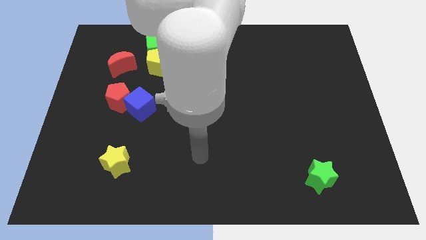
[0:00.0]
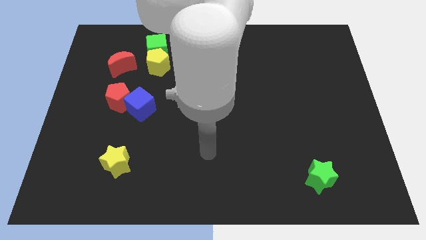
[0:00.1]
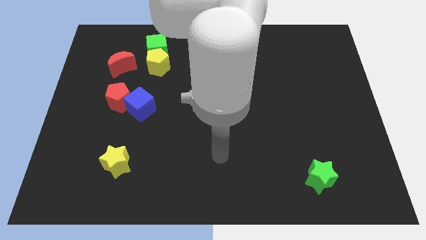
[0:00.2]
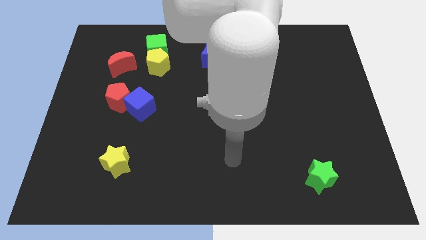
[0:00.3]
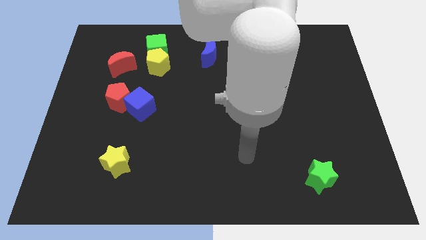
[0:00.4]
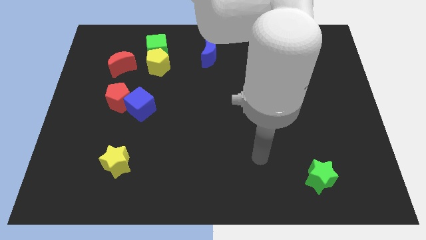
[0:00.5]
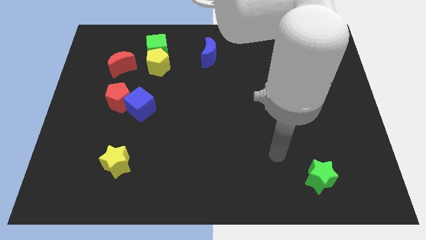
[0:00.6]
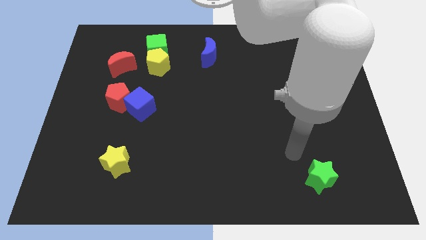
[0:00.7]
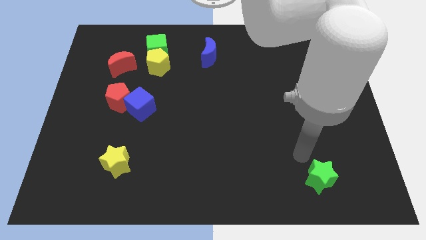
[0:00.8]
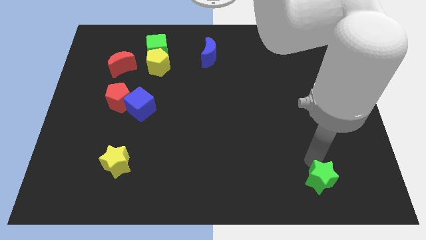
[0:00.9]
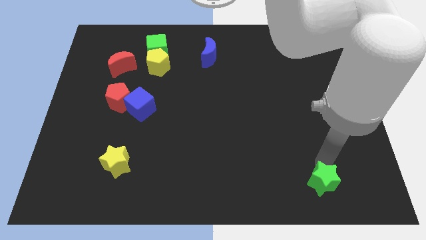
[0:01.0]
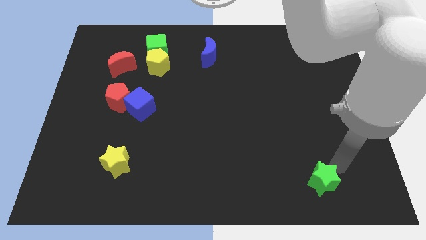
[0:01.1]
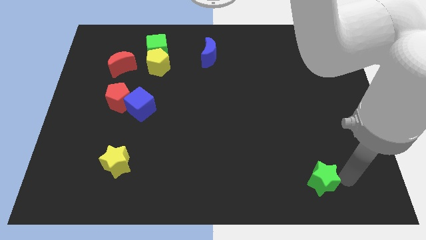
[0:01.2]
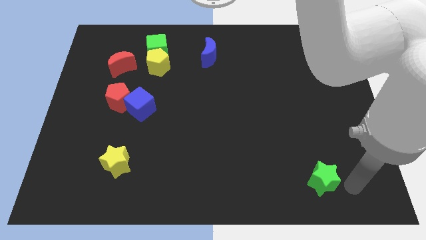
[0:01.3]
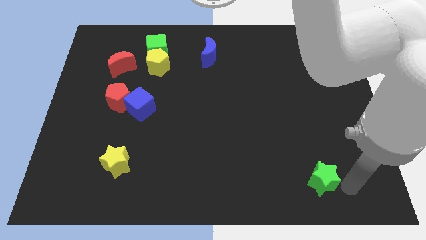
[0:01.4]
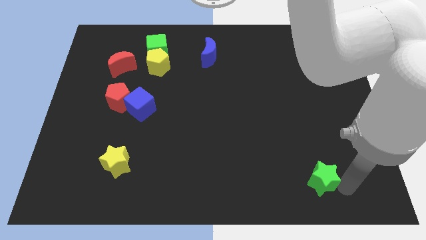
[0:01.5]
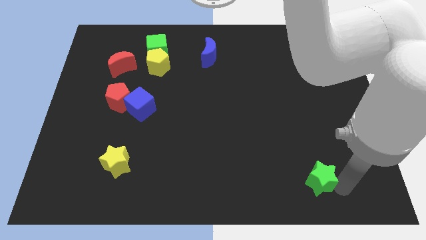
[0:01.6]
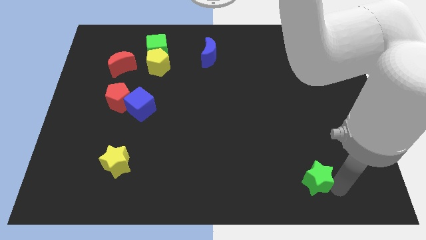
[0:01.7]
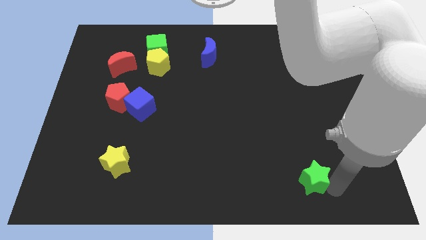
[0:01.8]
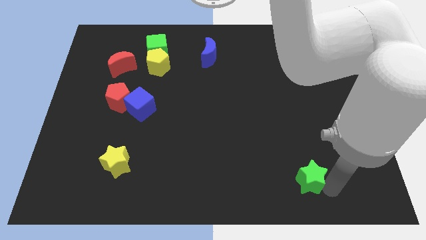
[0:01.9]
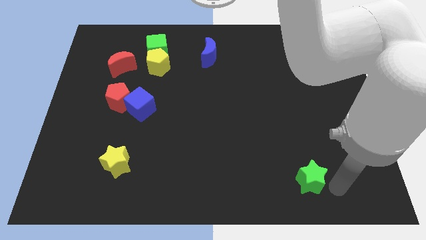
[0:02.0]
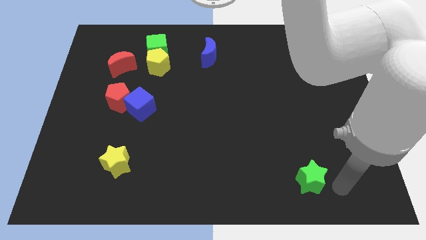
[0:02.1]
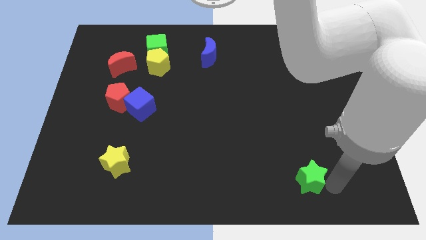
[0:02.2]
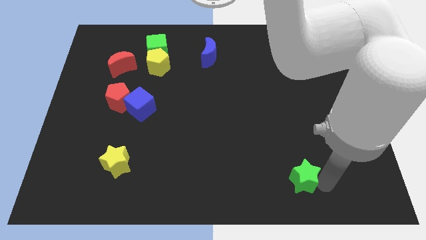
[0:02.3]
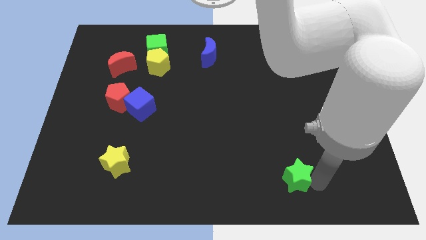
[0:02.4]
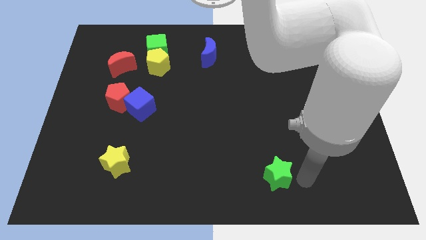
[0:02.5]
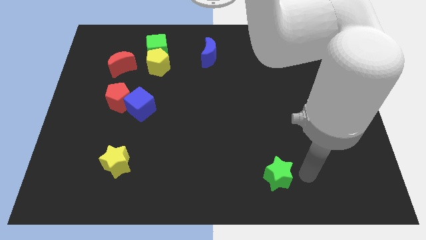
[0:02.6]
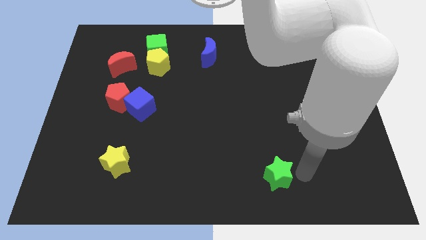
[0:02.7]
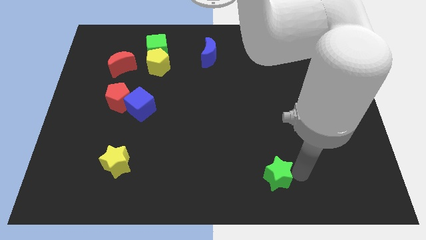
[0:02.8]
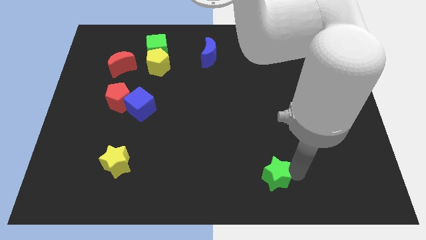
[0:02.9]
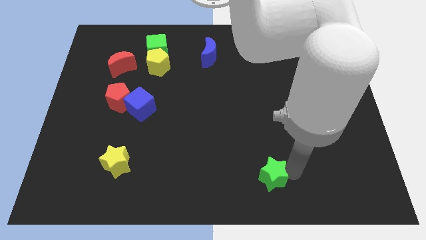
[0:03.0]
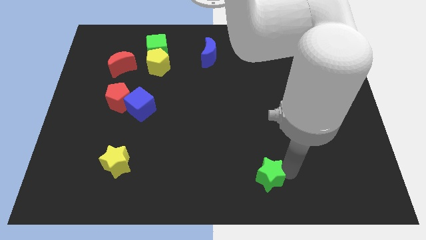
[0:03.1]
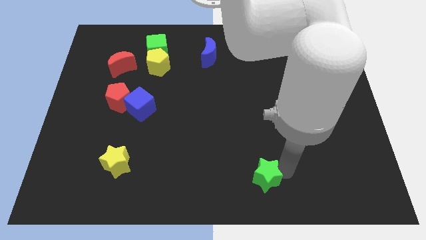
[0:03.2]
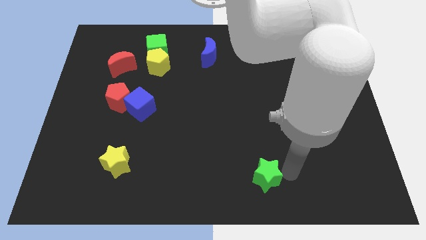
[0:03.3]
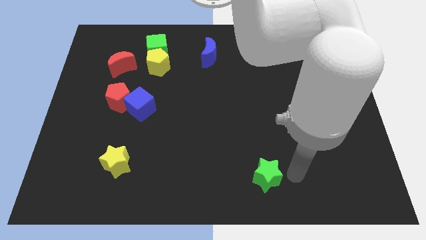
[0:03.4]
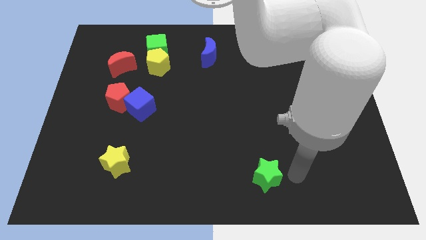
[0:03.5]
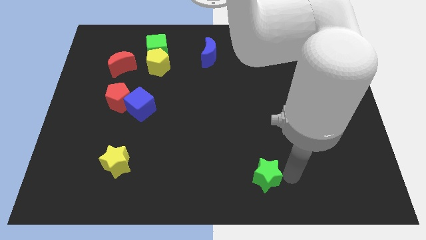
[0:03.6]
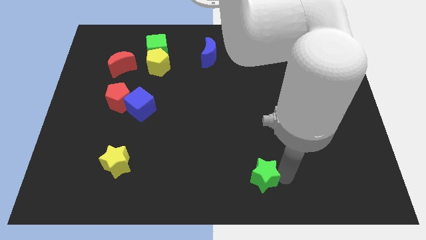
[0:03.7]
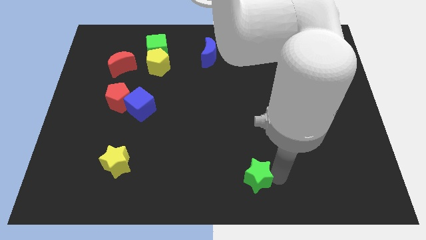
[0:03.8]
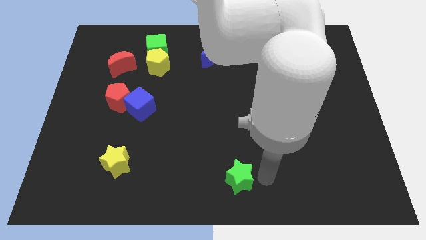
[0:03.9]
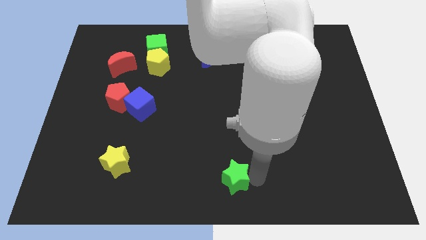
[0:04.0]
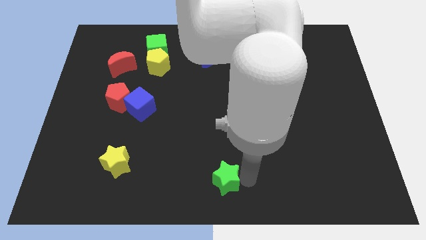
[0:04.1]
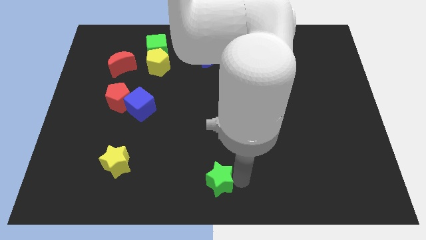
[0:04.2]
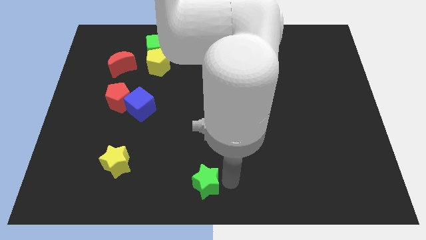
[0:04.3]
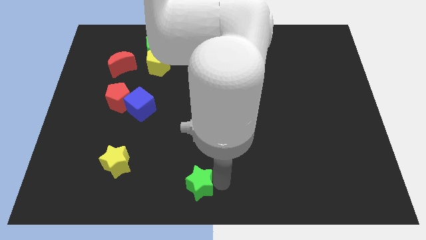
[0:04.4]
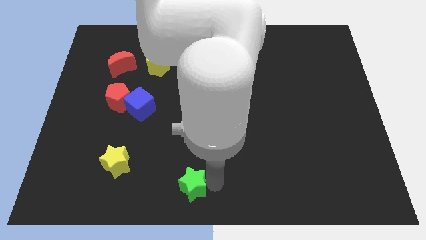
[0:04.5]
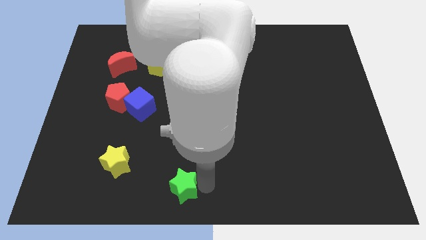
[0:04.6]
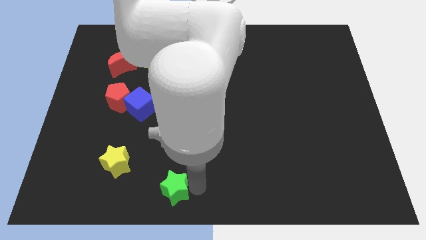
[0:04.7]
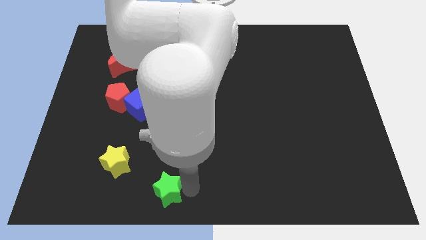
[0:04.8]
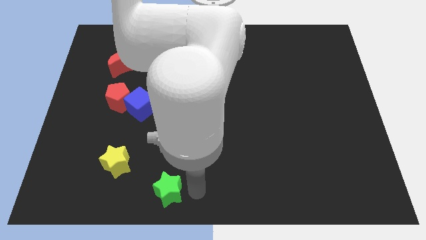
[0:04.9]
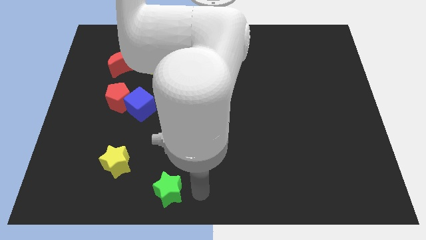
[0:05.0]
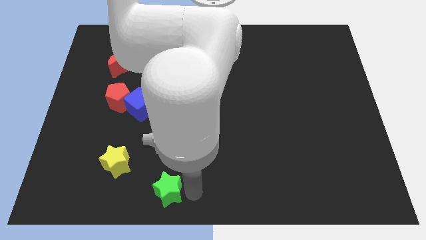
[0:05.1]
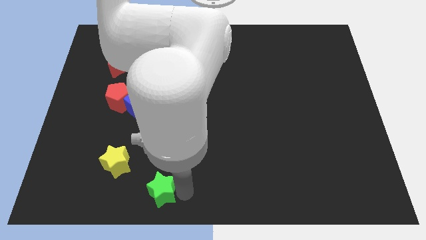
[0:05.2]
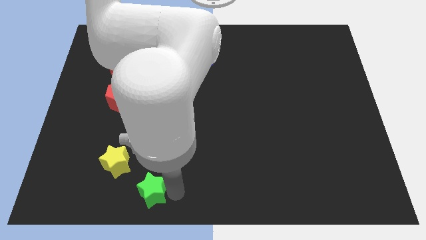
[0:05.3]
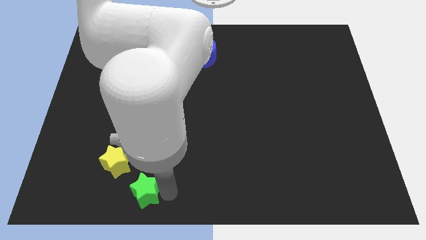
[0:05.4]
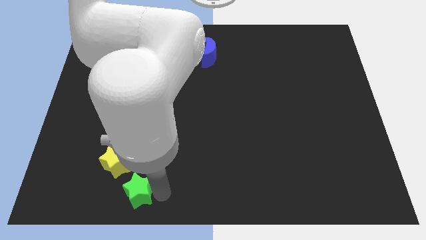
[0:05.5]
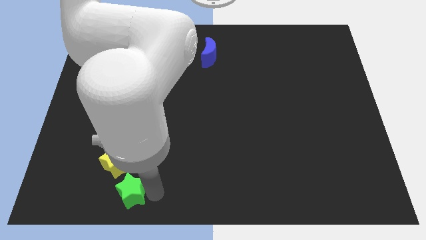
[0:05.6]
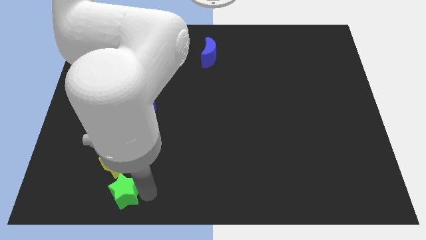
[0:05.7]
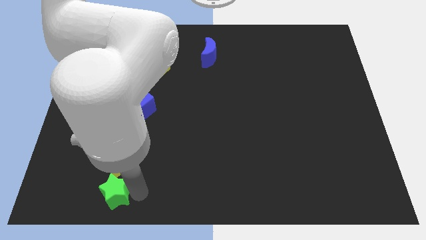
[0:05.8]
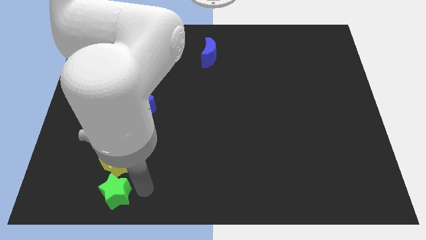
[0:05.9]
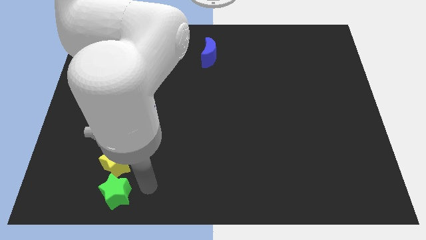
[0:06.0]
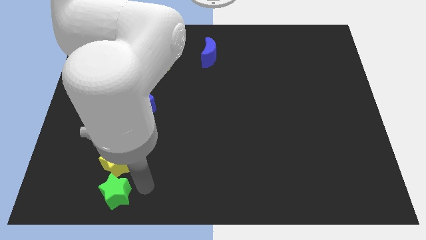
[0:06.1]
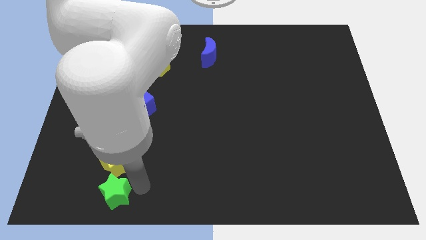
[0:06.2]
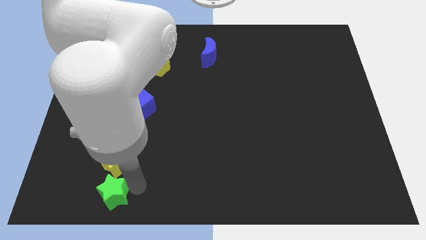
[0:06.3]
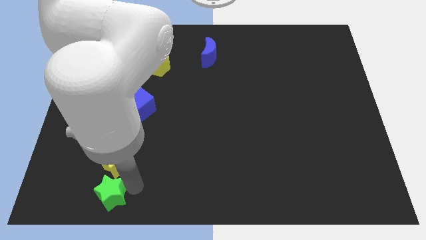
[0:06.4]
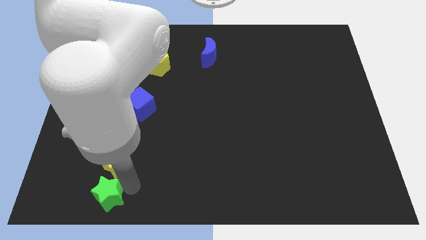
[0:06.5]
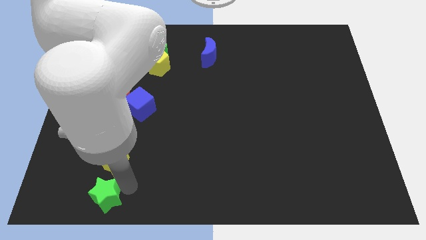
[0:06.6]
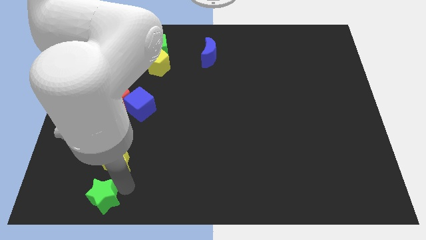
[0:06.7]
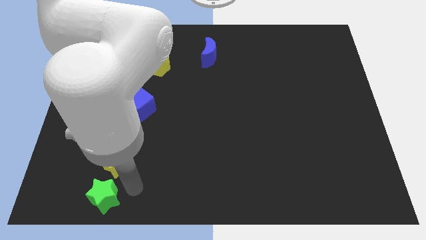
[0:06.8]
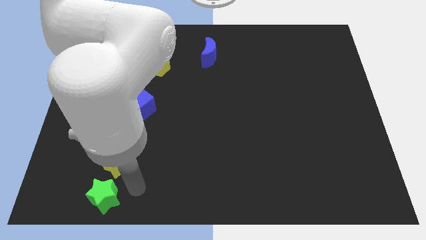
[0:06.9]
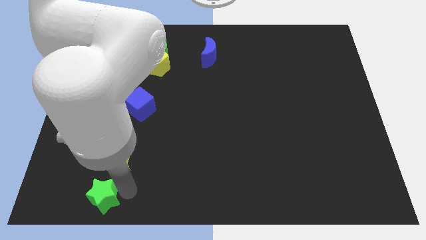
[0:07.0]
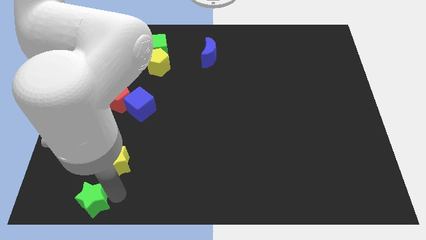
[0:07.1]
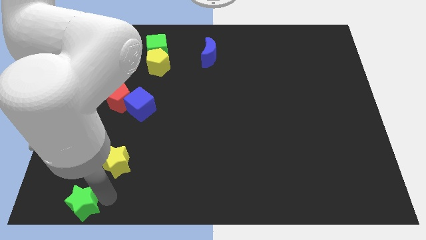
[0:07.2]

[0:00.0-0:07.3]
push the green star to the bottom left corner
